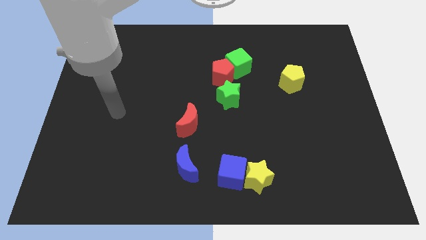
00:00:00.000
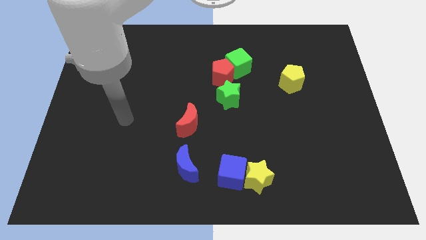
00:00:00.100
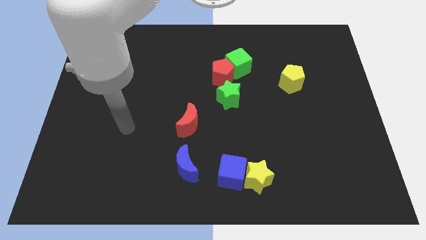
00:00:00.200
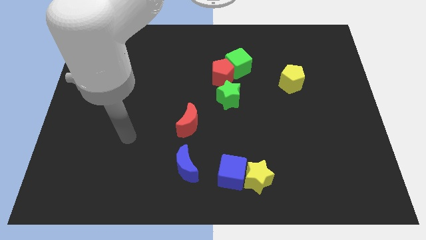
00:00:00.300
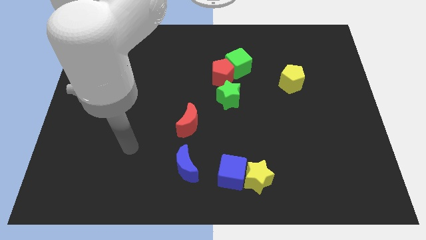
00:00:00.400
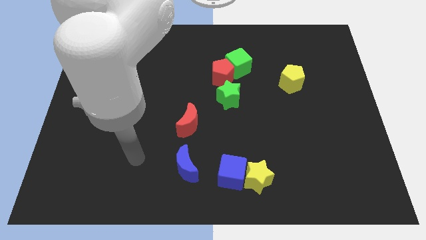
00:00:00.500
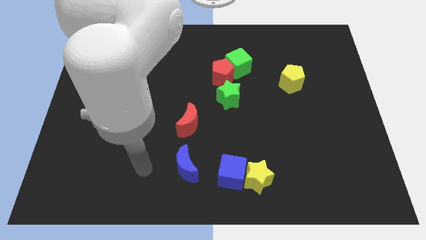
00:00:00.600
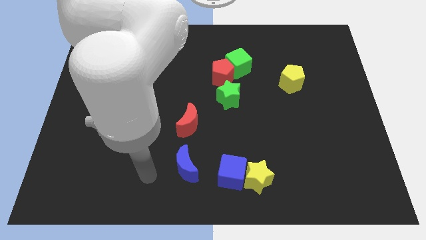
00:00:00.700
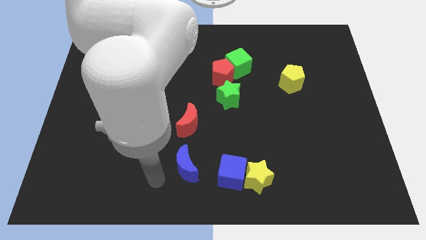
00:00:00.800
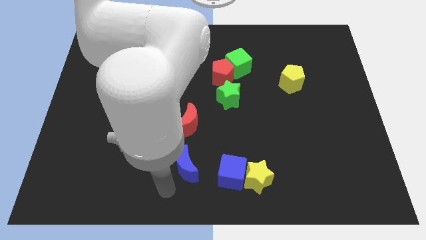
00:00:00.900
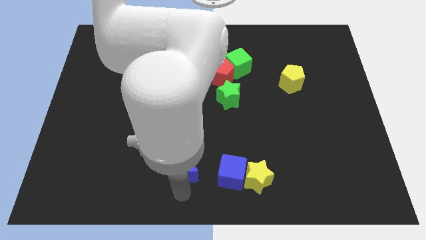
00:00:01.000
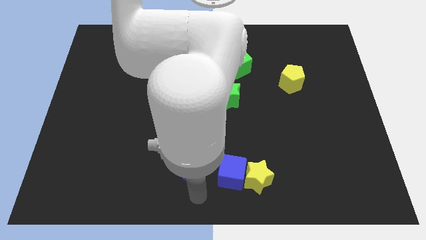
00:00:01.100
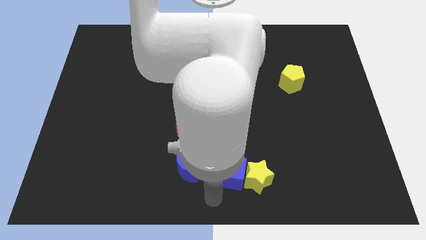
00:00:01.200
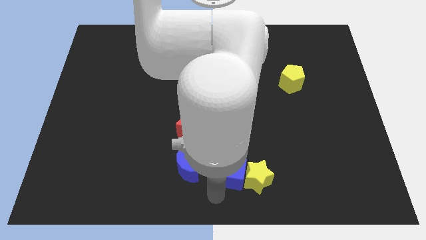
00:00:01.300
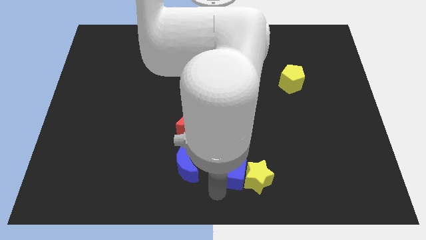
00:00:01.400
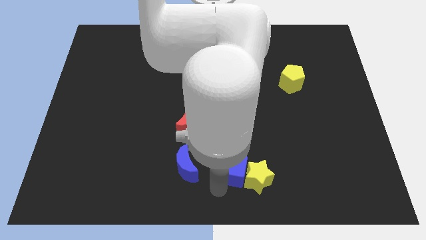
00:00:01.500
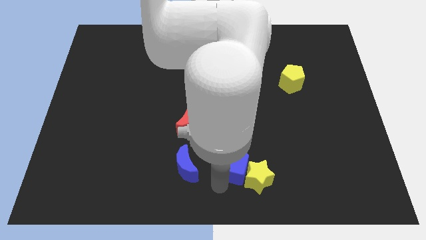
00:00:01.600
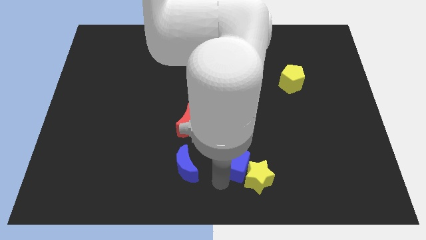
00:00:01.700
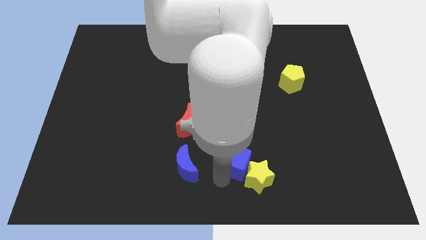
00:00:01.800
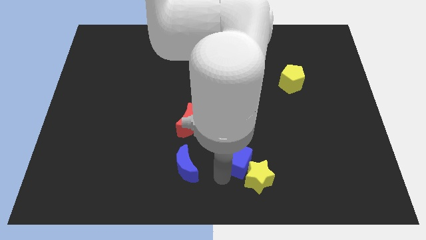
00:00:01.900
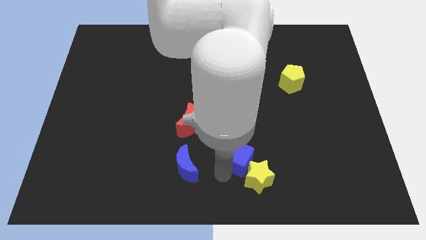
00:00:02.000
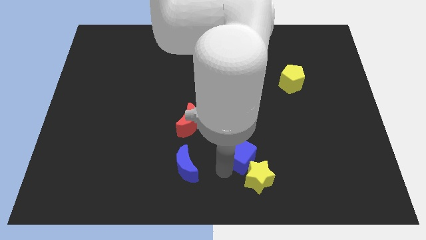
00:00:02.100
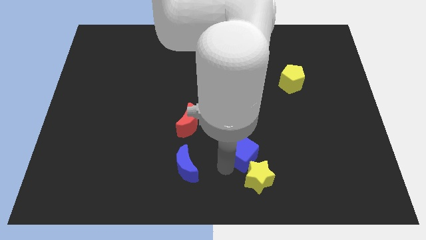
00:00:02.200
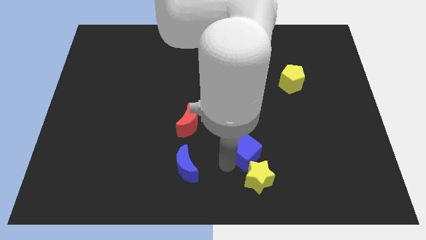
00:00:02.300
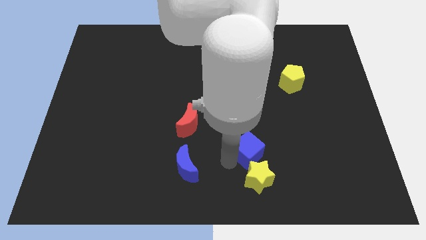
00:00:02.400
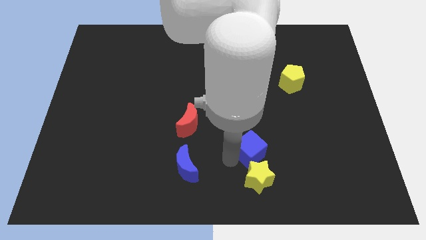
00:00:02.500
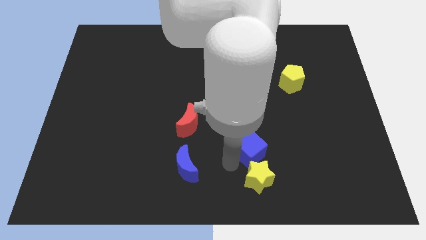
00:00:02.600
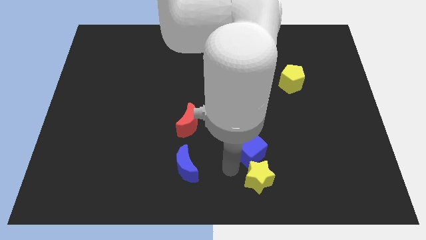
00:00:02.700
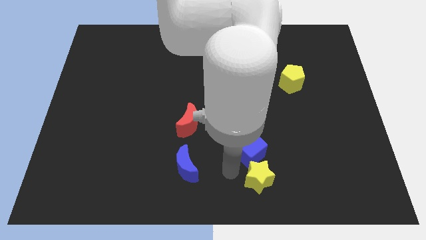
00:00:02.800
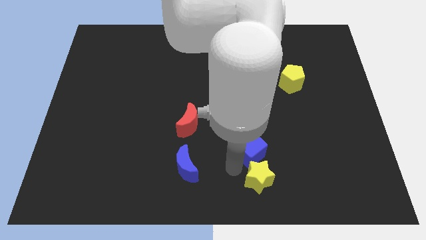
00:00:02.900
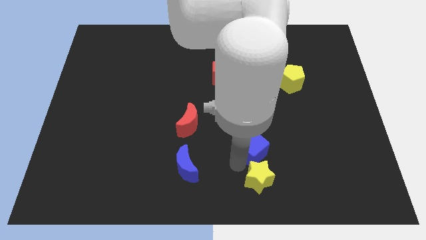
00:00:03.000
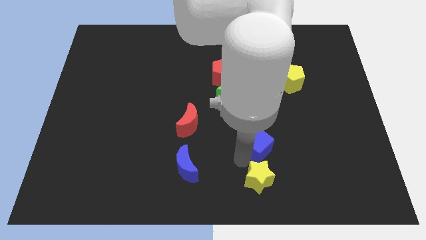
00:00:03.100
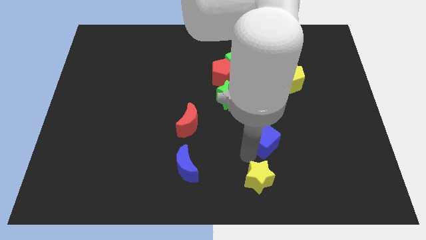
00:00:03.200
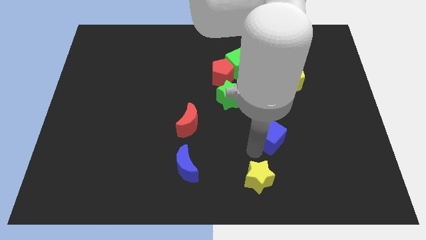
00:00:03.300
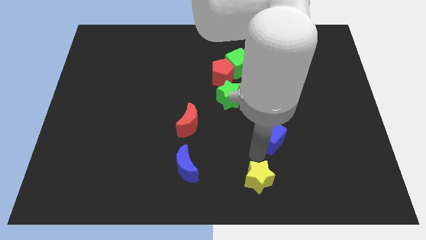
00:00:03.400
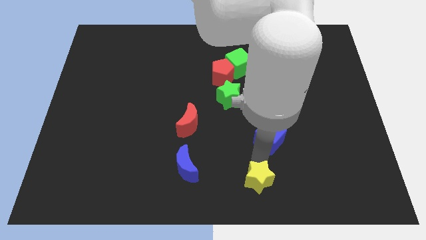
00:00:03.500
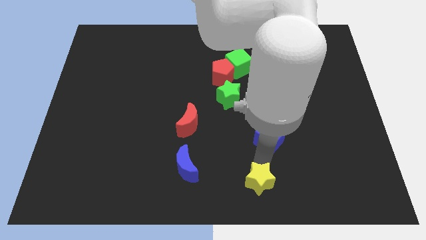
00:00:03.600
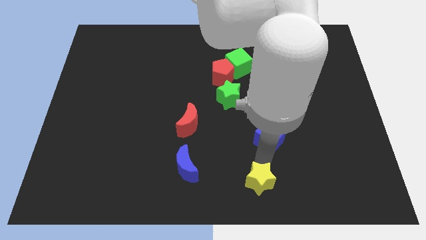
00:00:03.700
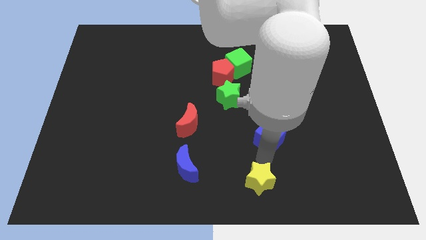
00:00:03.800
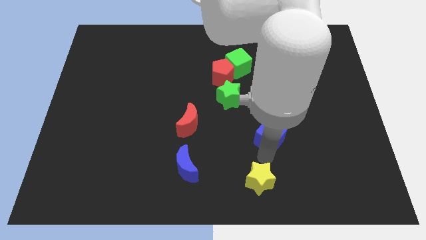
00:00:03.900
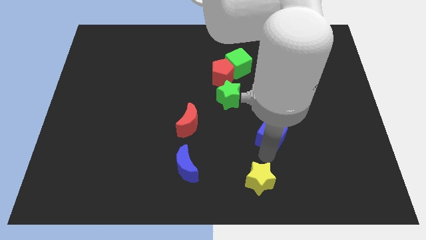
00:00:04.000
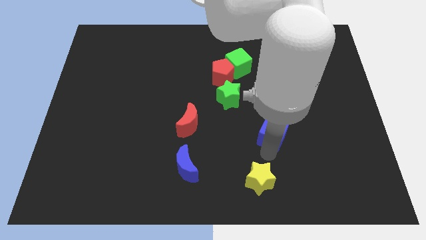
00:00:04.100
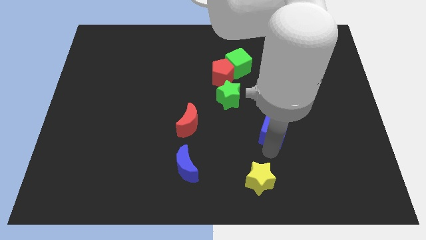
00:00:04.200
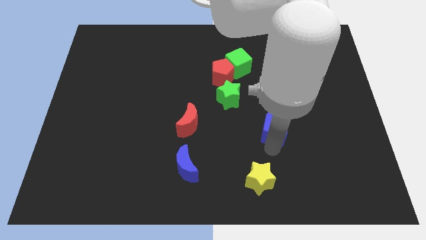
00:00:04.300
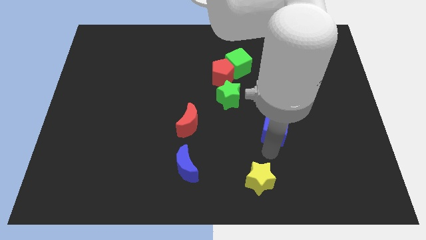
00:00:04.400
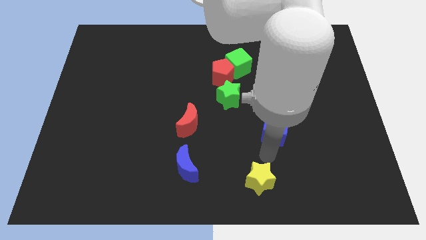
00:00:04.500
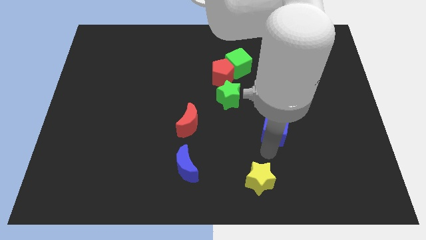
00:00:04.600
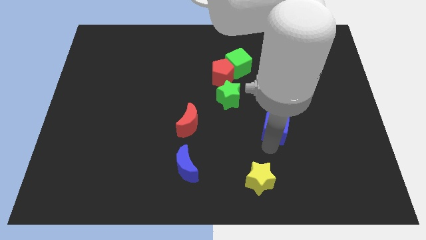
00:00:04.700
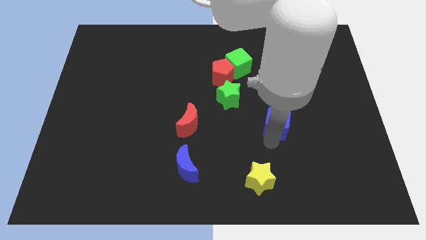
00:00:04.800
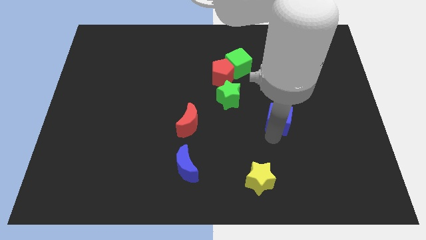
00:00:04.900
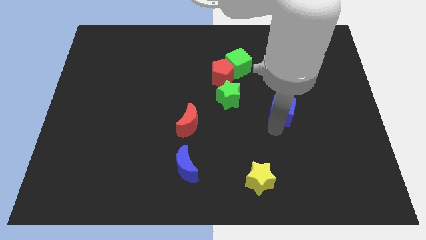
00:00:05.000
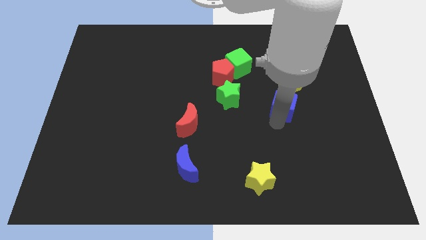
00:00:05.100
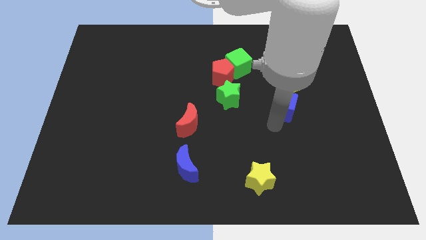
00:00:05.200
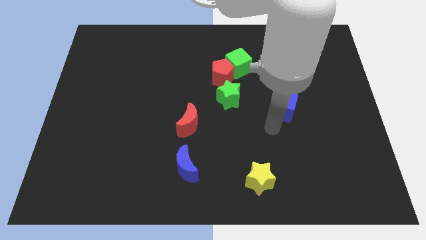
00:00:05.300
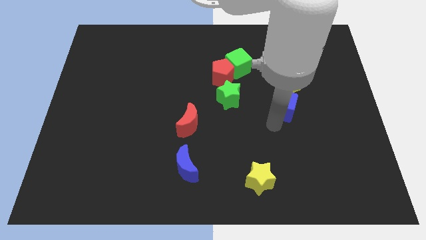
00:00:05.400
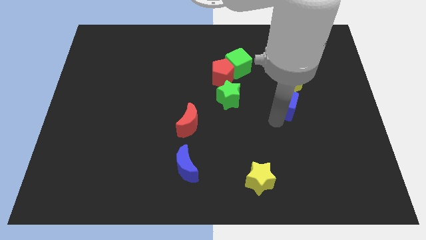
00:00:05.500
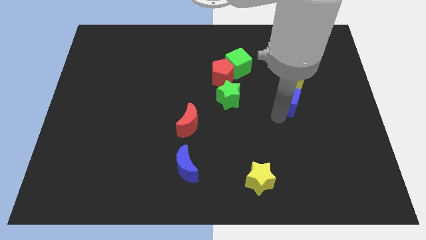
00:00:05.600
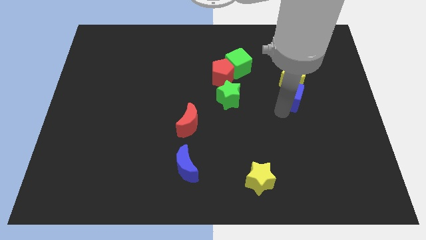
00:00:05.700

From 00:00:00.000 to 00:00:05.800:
push the blue cube next to the yellow pentagon

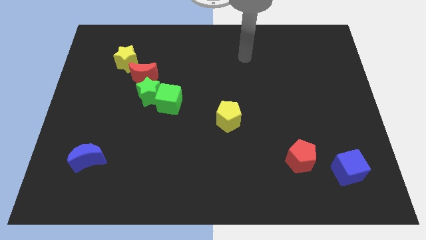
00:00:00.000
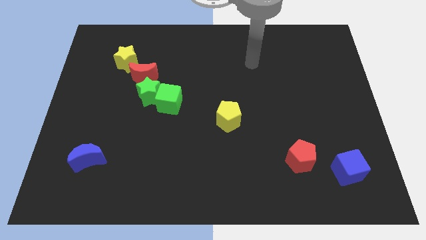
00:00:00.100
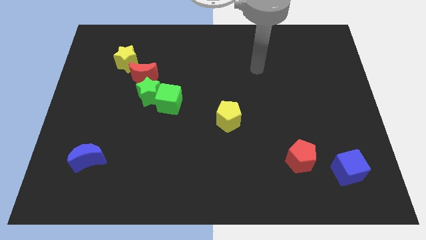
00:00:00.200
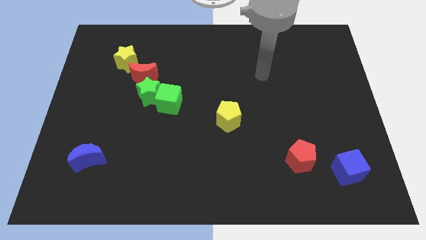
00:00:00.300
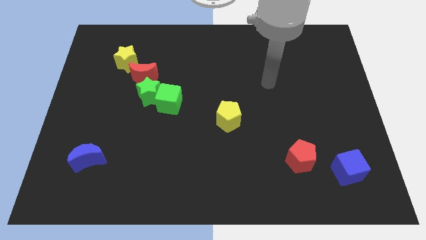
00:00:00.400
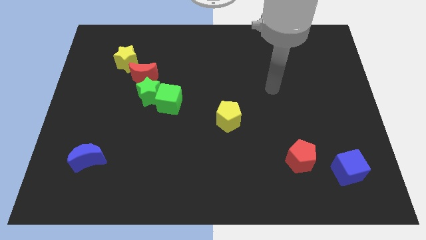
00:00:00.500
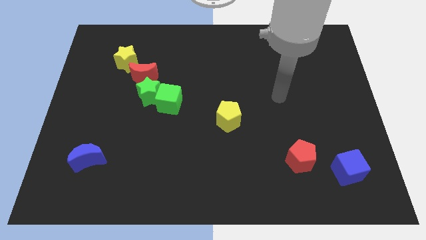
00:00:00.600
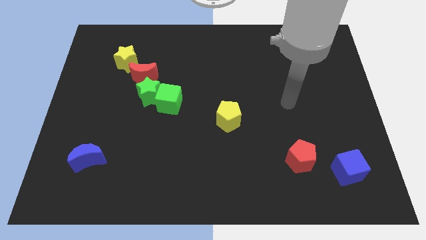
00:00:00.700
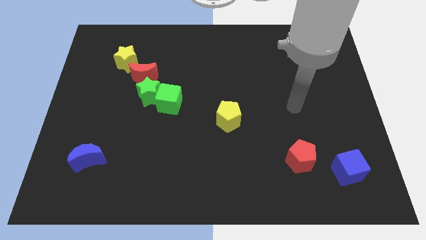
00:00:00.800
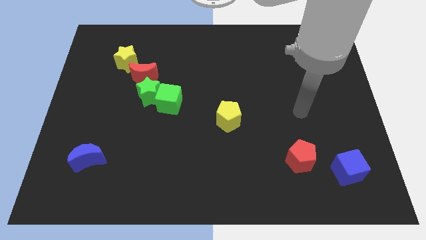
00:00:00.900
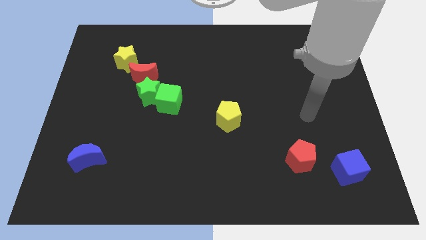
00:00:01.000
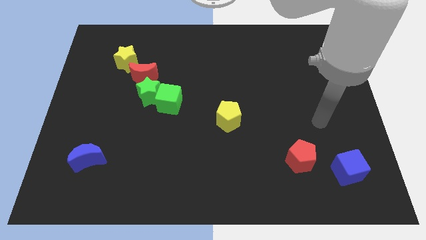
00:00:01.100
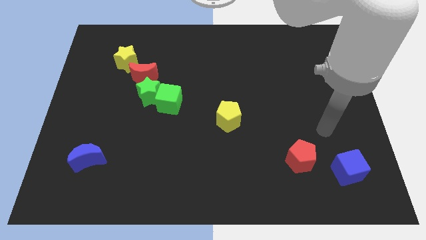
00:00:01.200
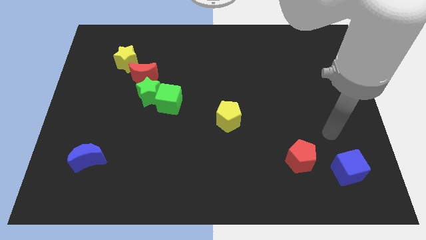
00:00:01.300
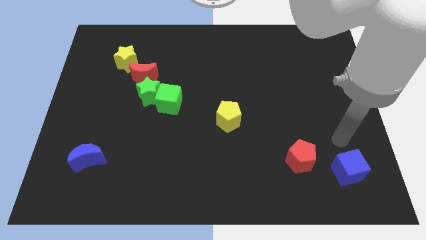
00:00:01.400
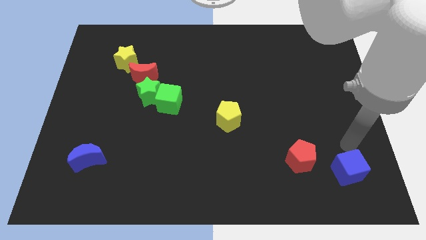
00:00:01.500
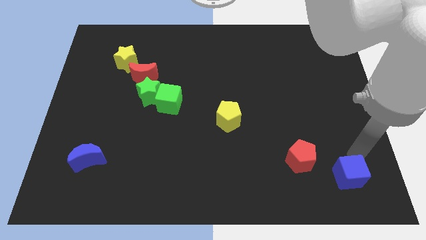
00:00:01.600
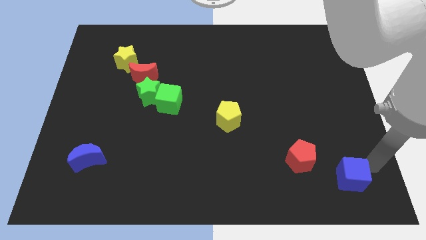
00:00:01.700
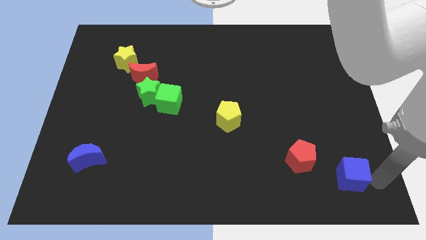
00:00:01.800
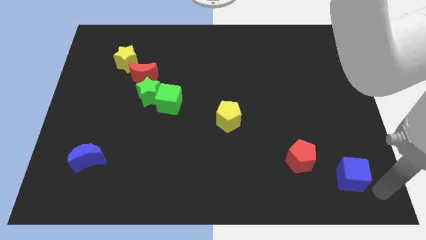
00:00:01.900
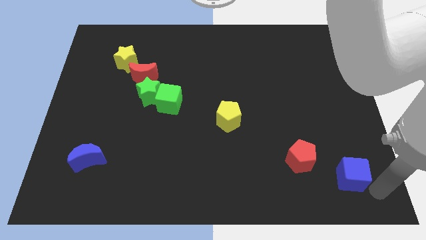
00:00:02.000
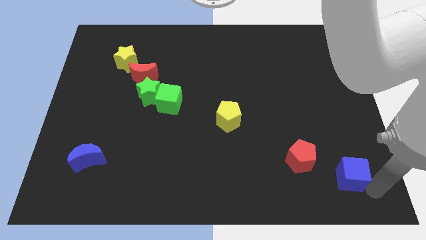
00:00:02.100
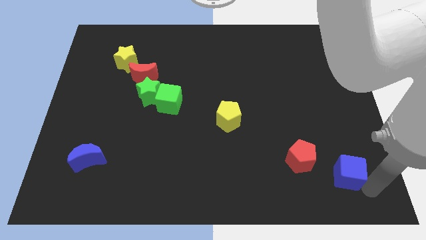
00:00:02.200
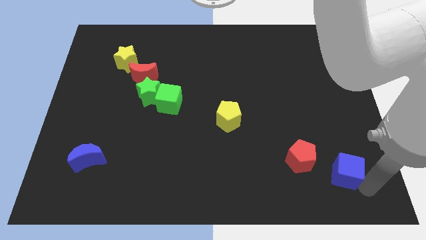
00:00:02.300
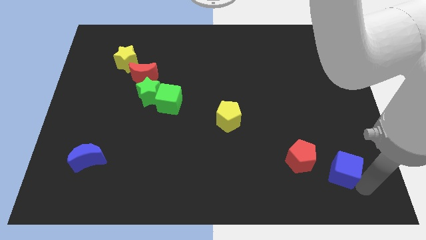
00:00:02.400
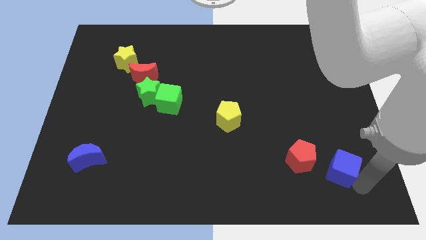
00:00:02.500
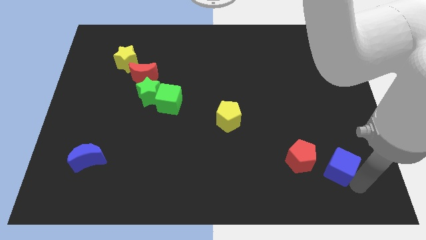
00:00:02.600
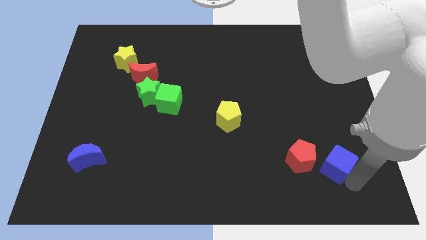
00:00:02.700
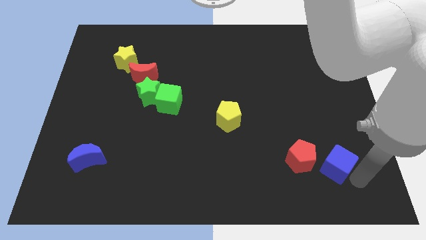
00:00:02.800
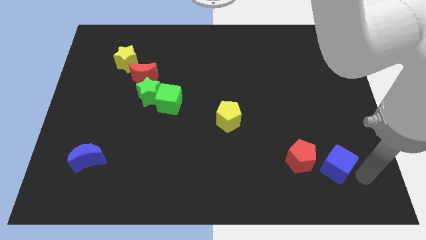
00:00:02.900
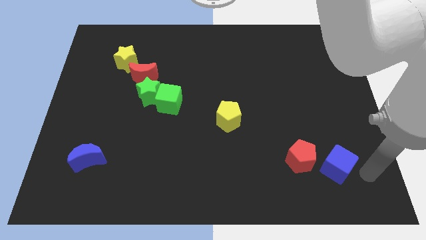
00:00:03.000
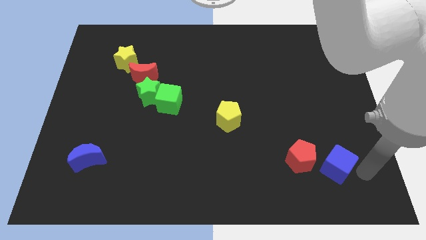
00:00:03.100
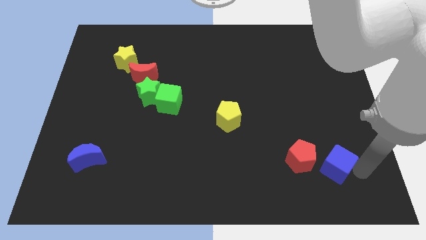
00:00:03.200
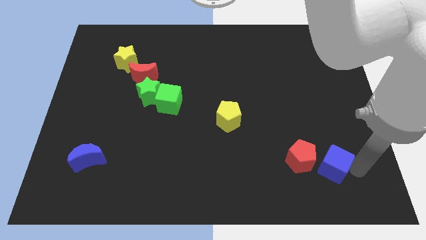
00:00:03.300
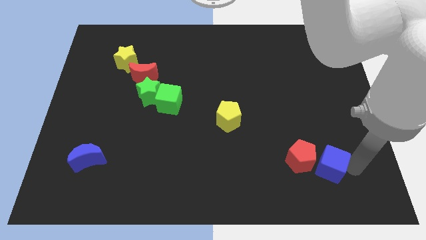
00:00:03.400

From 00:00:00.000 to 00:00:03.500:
push the blue cube towards the red pentagon
